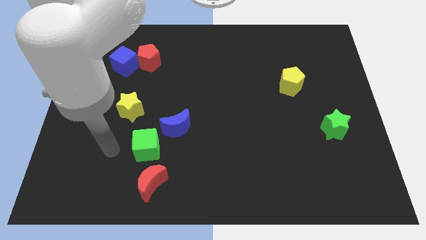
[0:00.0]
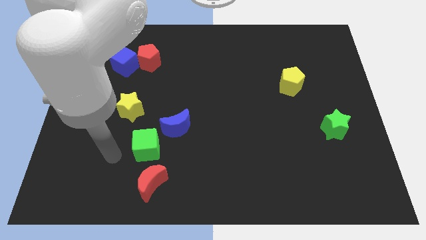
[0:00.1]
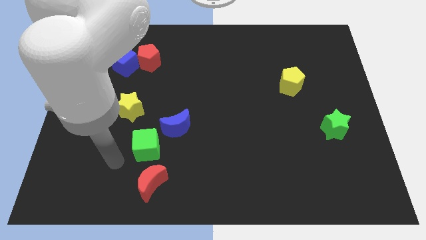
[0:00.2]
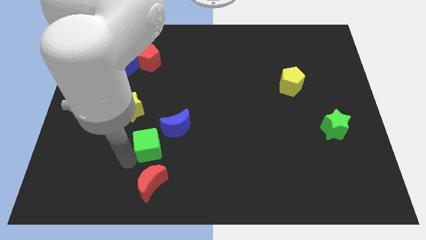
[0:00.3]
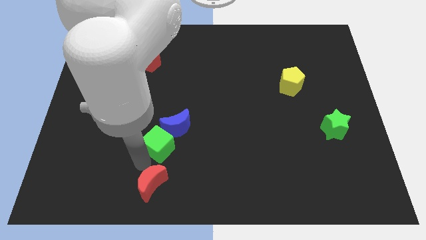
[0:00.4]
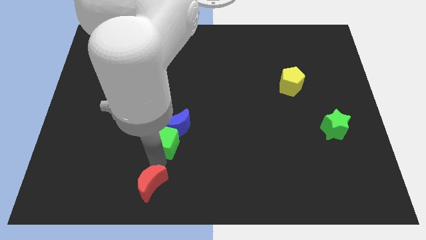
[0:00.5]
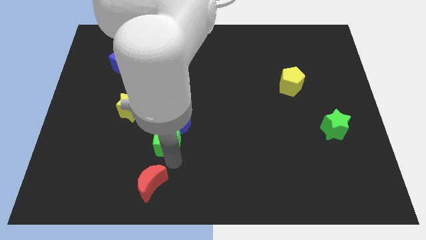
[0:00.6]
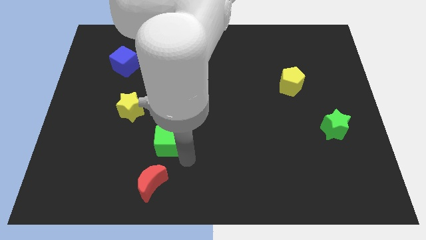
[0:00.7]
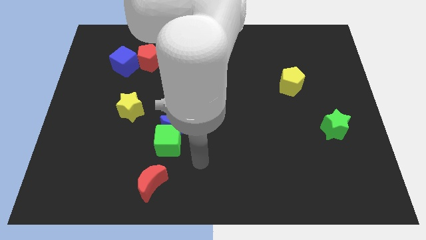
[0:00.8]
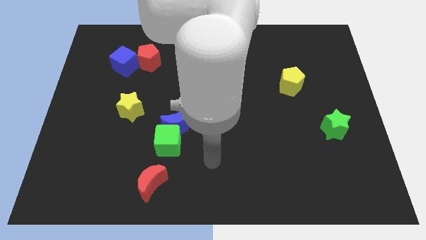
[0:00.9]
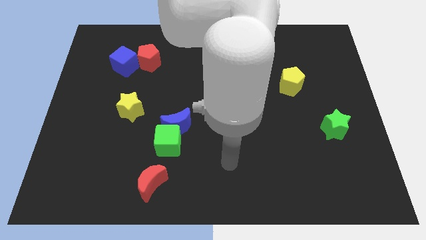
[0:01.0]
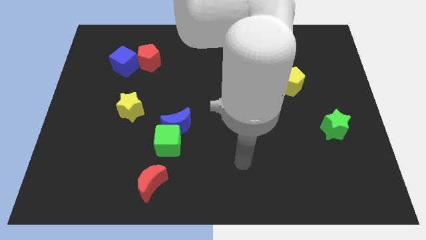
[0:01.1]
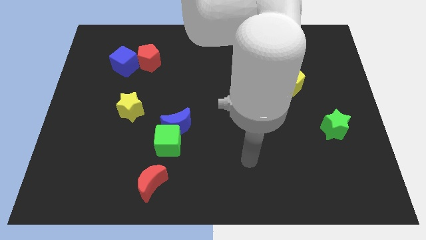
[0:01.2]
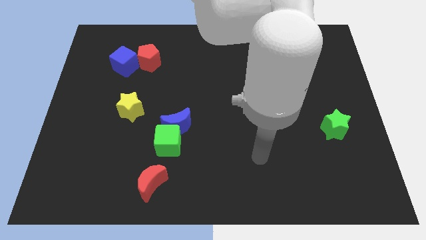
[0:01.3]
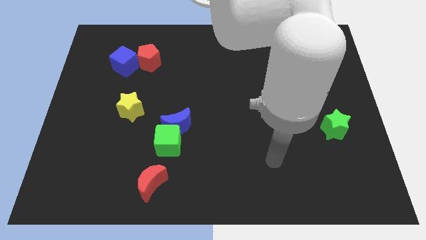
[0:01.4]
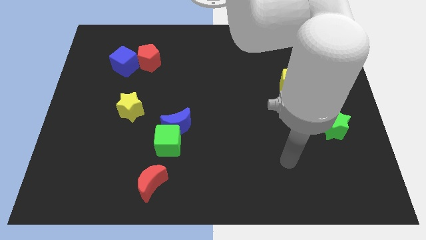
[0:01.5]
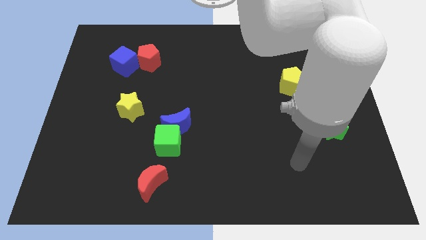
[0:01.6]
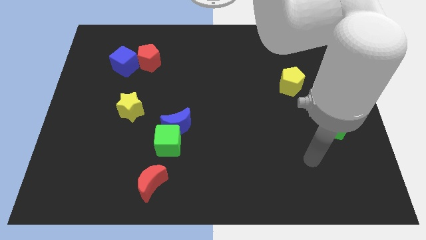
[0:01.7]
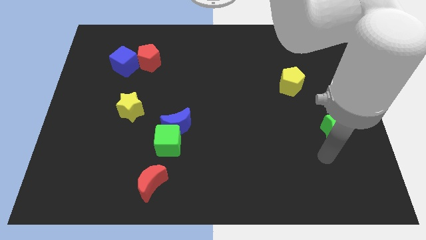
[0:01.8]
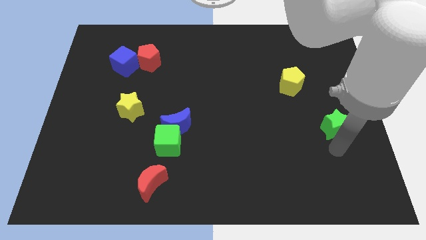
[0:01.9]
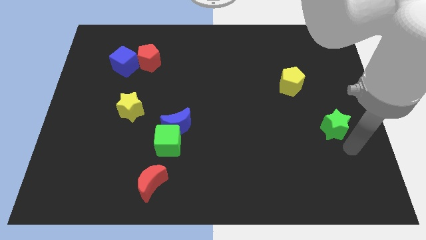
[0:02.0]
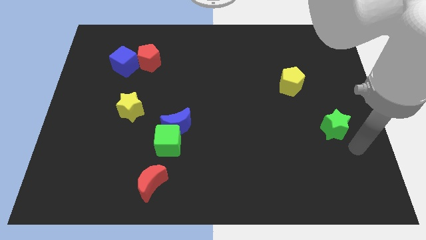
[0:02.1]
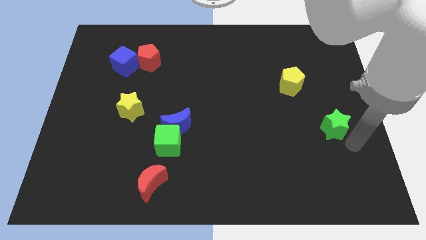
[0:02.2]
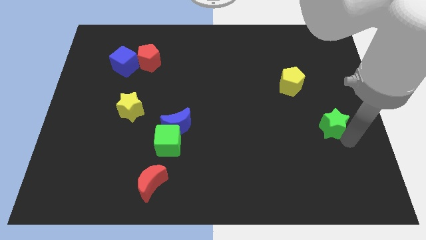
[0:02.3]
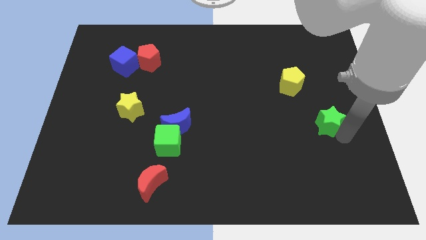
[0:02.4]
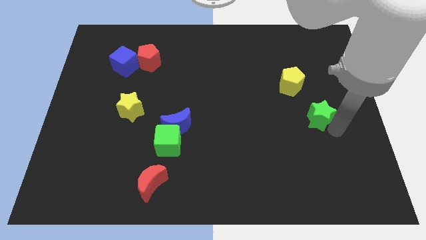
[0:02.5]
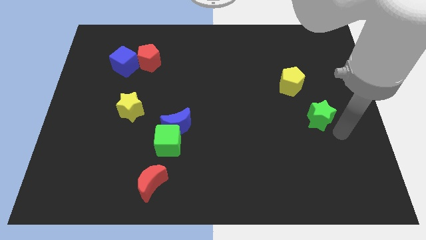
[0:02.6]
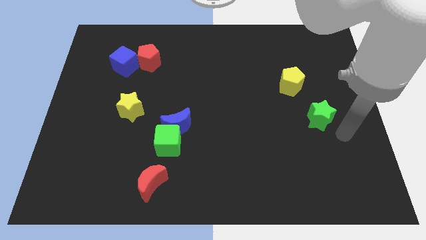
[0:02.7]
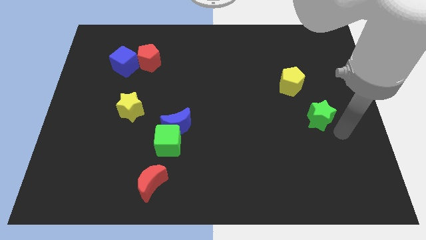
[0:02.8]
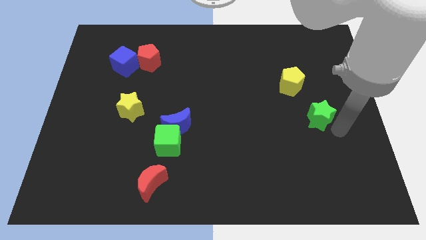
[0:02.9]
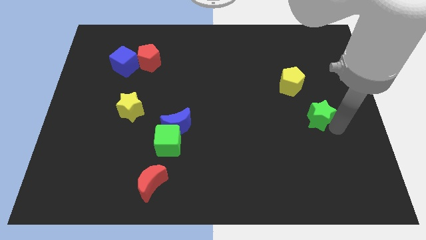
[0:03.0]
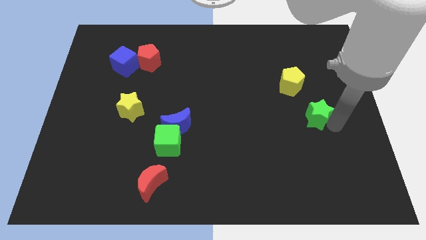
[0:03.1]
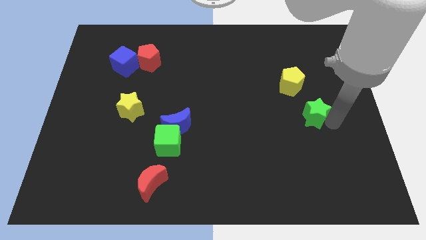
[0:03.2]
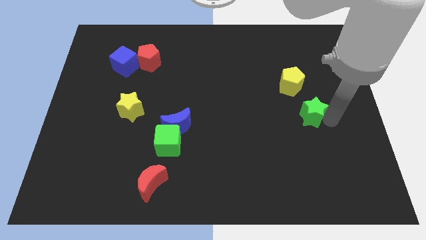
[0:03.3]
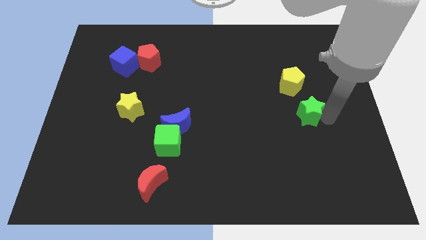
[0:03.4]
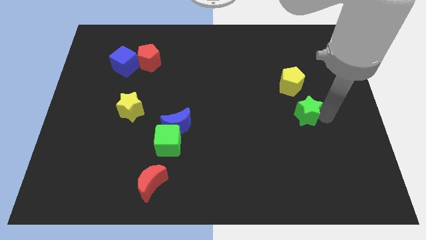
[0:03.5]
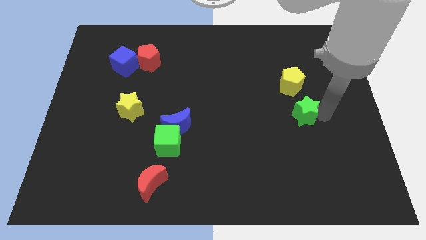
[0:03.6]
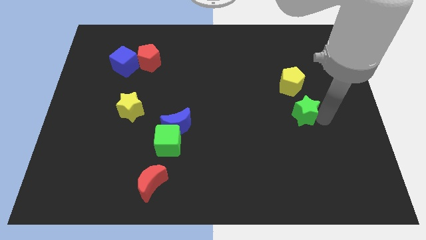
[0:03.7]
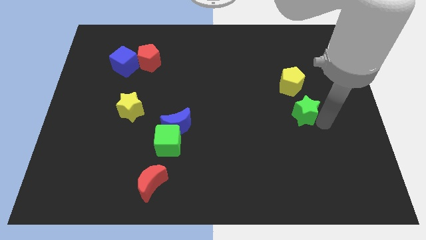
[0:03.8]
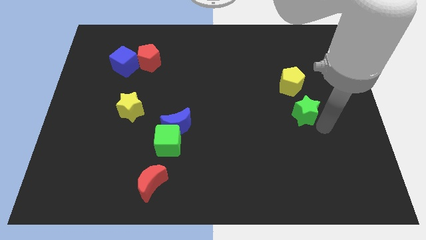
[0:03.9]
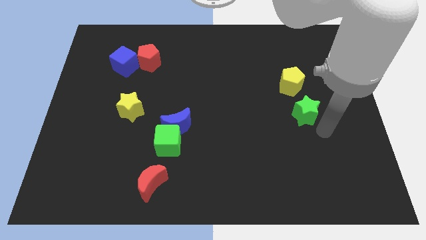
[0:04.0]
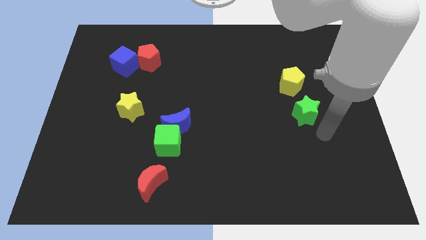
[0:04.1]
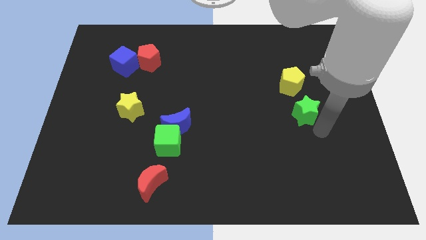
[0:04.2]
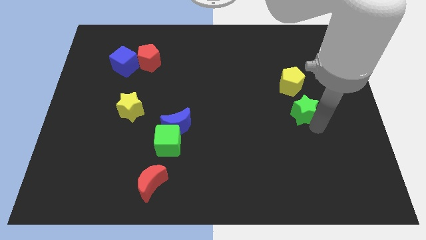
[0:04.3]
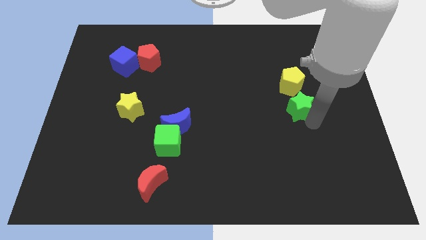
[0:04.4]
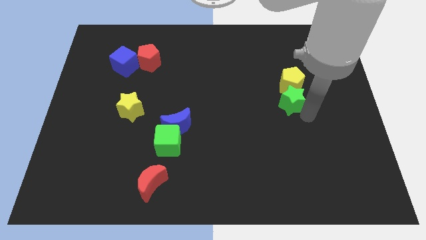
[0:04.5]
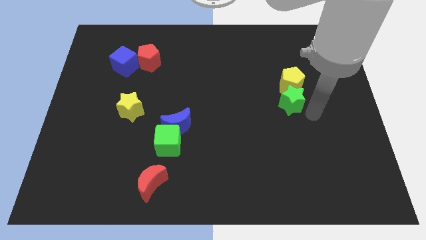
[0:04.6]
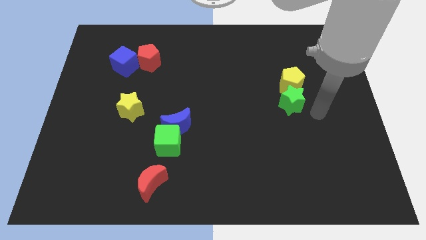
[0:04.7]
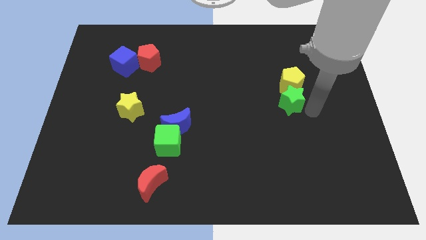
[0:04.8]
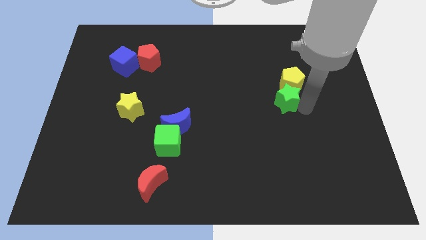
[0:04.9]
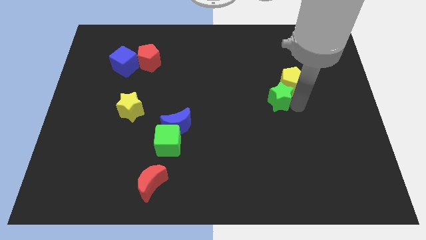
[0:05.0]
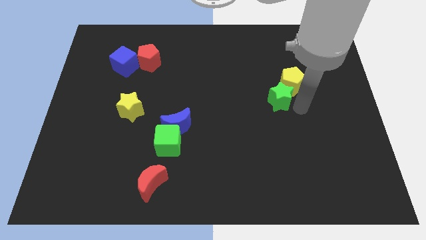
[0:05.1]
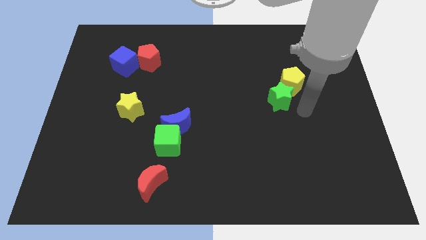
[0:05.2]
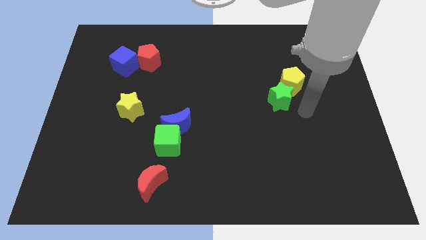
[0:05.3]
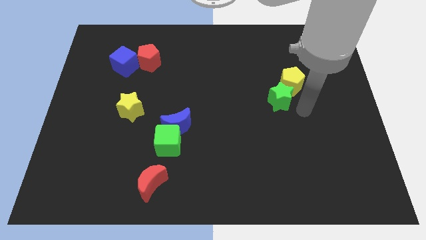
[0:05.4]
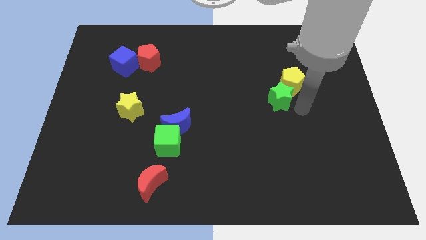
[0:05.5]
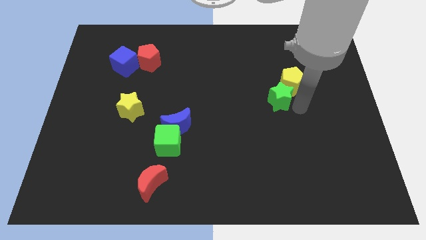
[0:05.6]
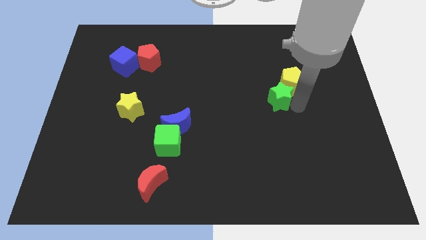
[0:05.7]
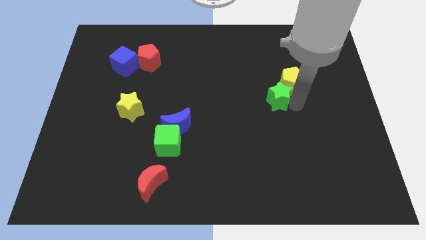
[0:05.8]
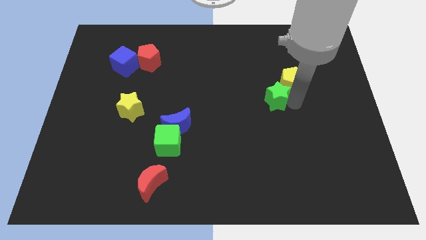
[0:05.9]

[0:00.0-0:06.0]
push the green star just left of the yellow pentagon
